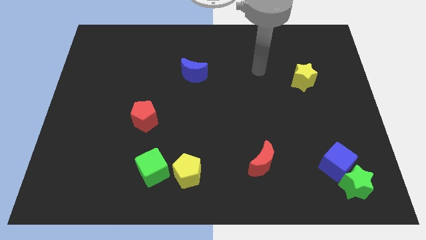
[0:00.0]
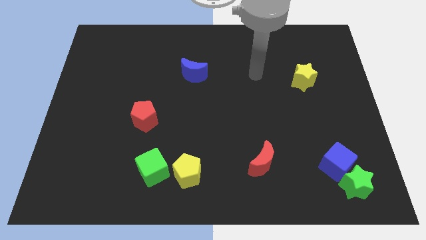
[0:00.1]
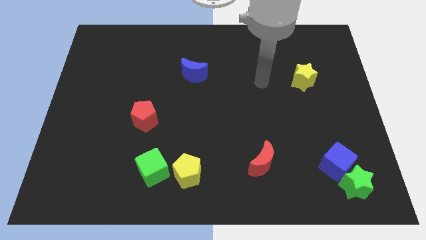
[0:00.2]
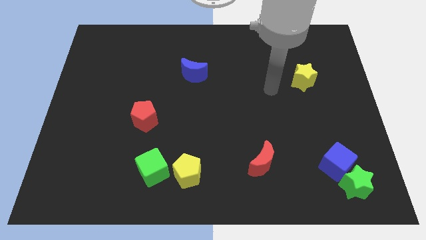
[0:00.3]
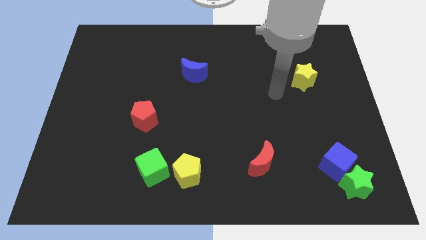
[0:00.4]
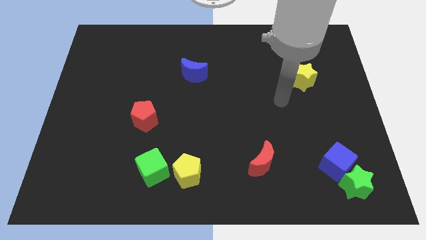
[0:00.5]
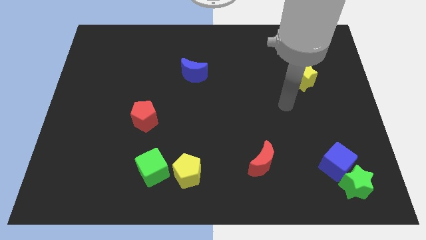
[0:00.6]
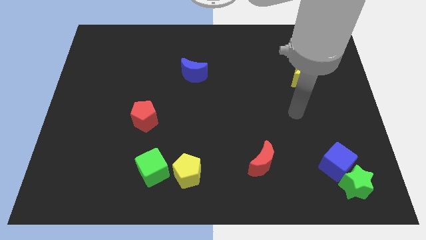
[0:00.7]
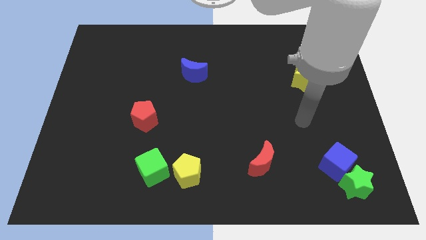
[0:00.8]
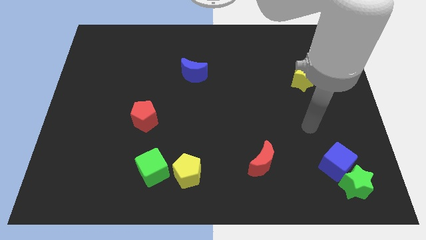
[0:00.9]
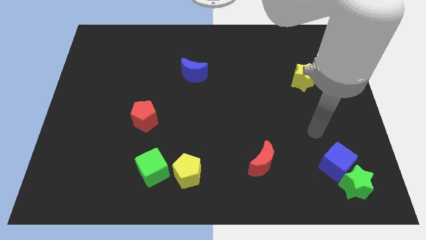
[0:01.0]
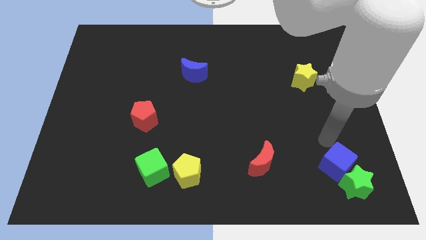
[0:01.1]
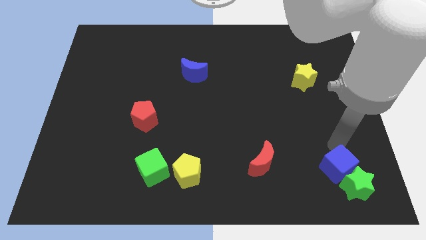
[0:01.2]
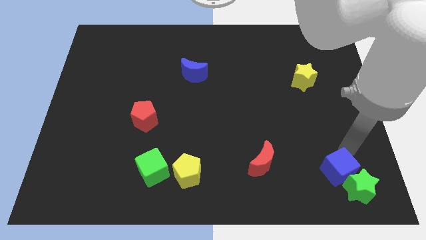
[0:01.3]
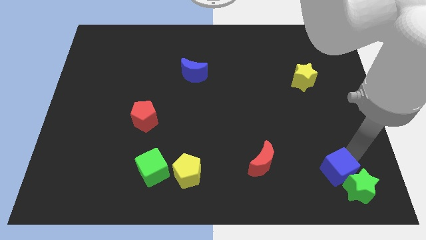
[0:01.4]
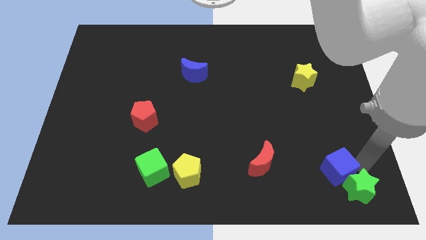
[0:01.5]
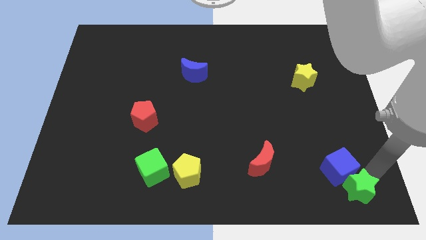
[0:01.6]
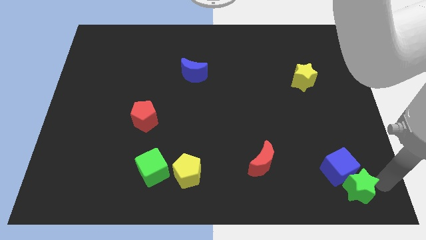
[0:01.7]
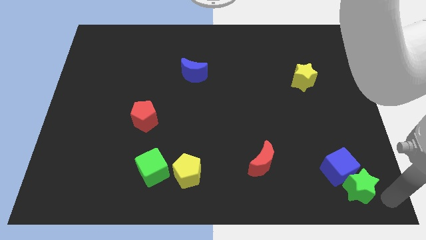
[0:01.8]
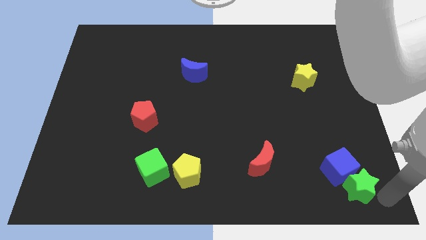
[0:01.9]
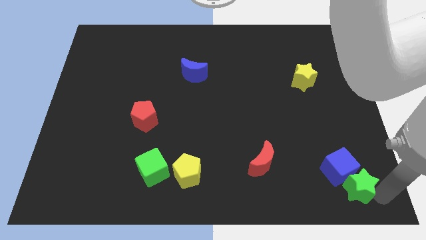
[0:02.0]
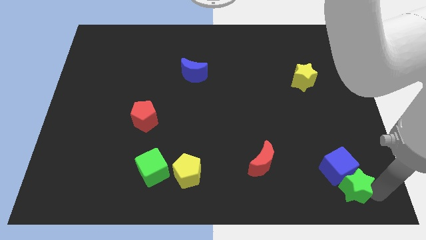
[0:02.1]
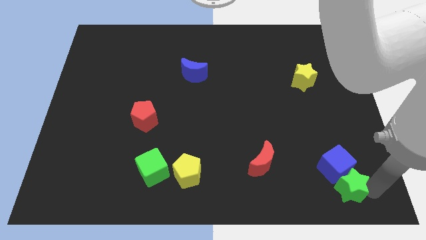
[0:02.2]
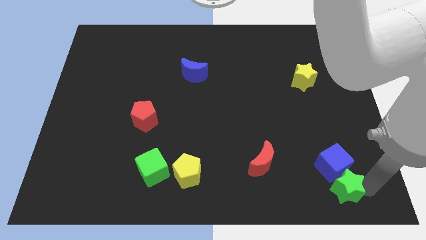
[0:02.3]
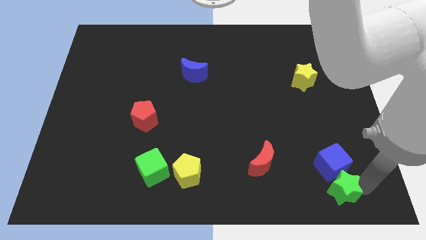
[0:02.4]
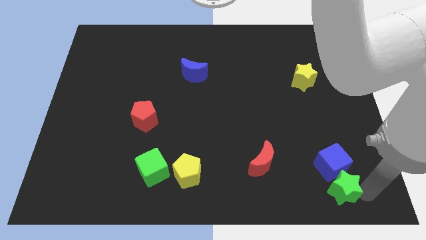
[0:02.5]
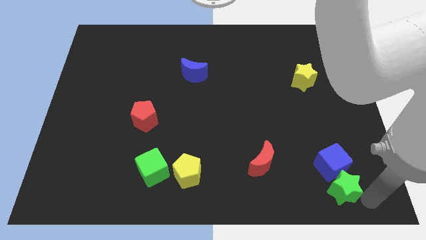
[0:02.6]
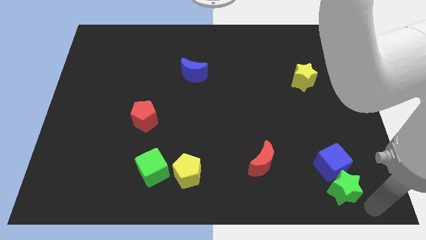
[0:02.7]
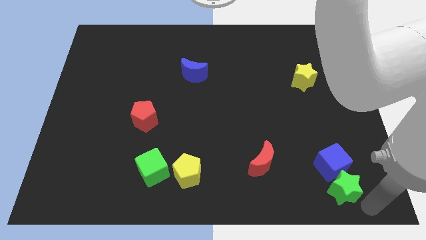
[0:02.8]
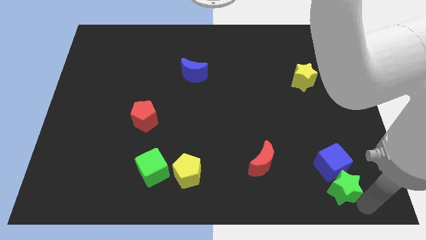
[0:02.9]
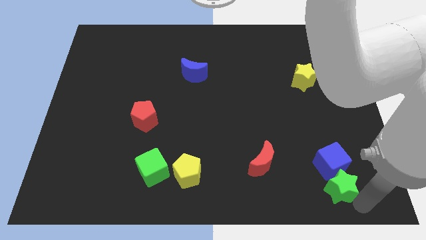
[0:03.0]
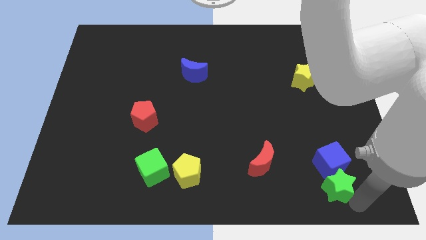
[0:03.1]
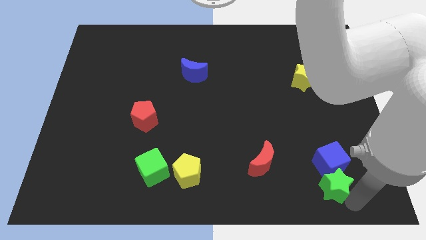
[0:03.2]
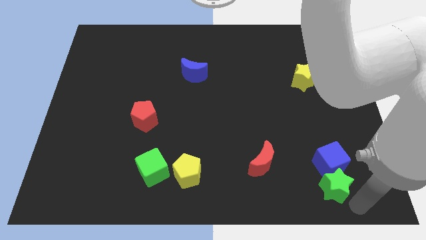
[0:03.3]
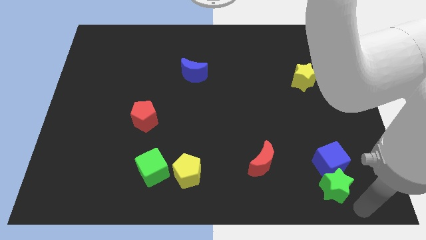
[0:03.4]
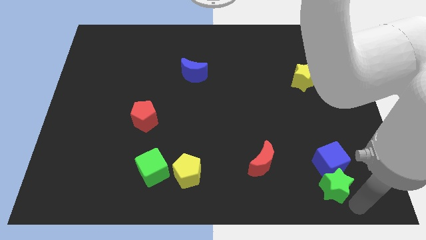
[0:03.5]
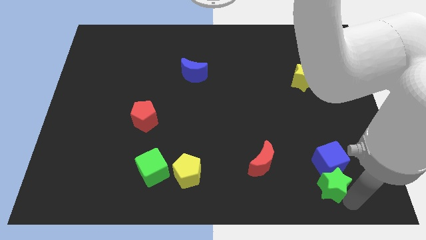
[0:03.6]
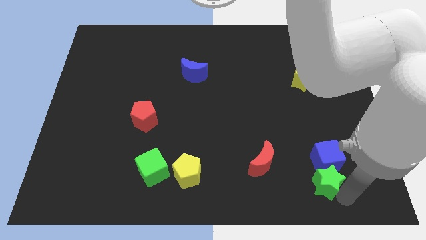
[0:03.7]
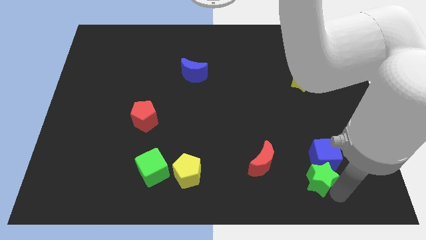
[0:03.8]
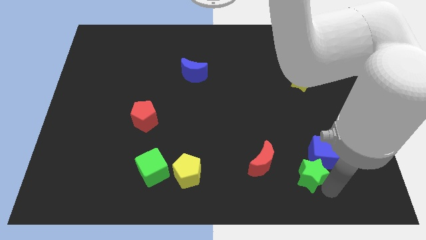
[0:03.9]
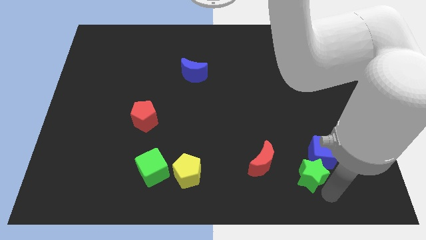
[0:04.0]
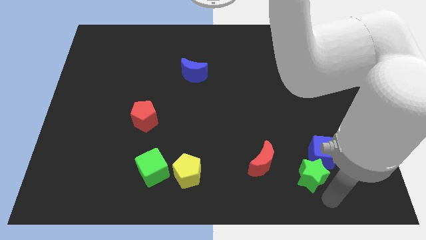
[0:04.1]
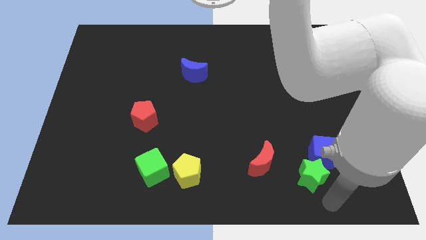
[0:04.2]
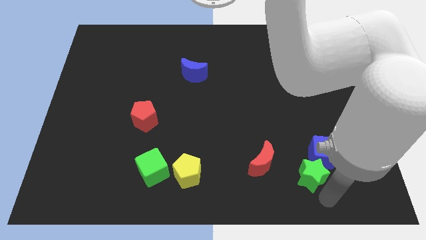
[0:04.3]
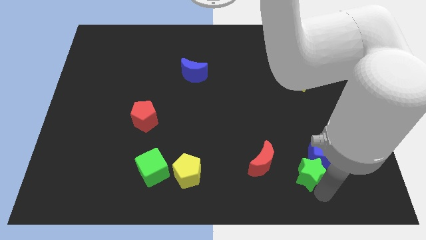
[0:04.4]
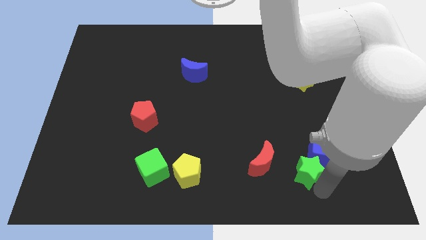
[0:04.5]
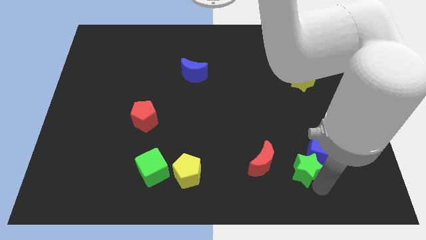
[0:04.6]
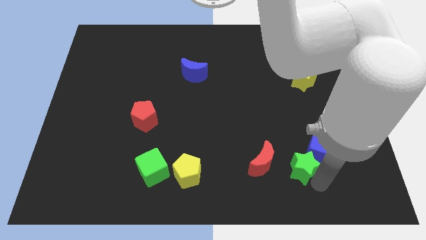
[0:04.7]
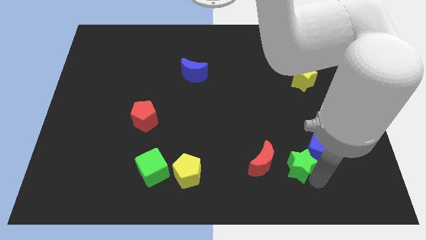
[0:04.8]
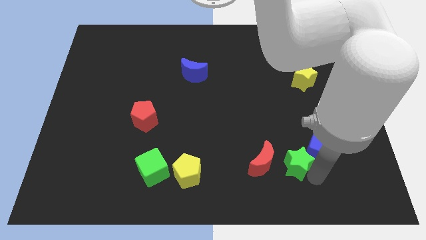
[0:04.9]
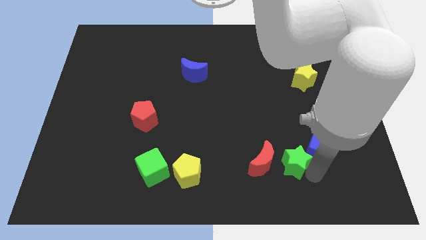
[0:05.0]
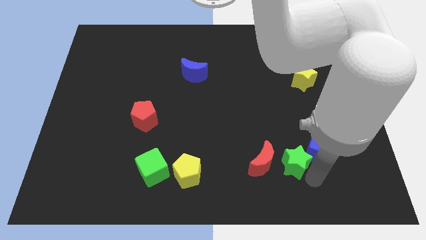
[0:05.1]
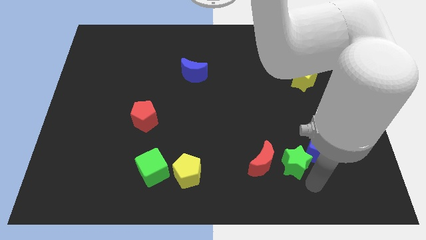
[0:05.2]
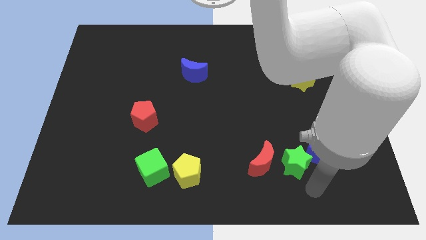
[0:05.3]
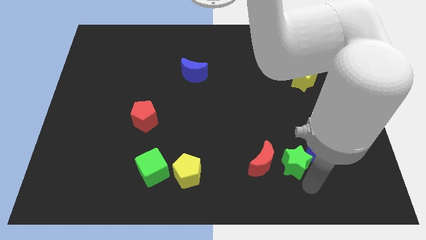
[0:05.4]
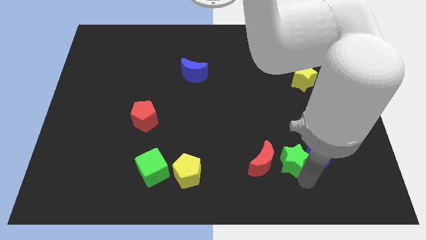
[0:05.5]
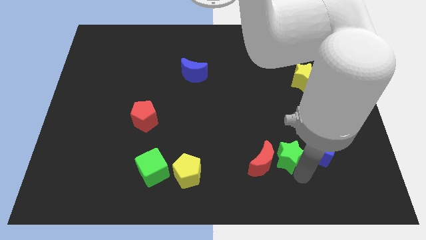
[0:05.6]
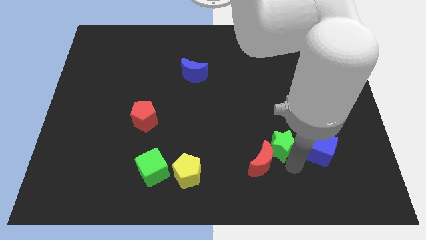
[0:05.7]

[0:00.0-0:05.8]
put the green star to the top side of the red moon
